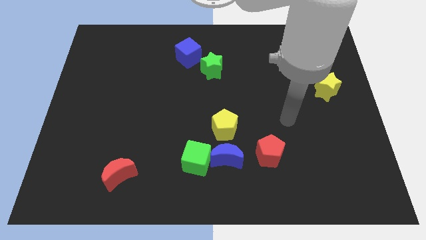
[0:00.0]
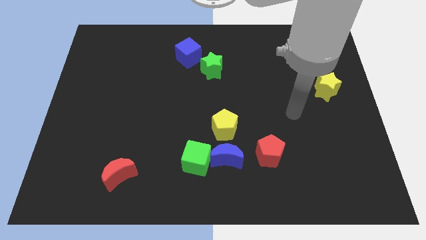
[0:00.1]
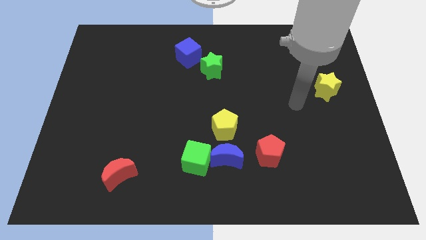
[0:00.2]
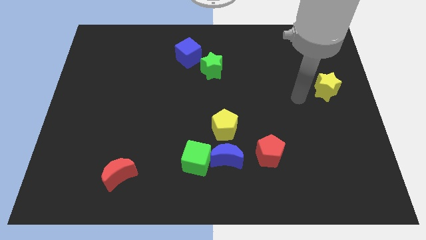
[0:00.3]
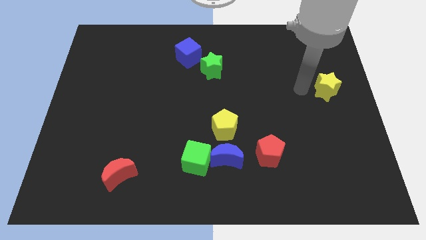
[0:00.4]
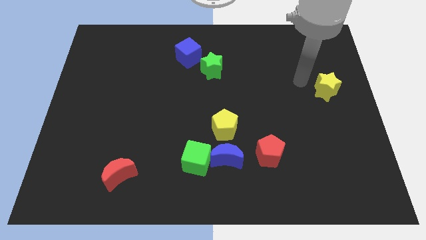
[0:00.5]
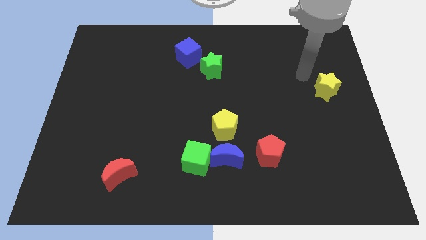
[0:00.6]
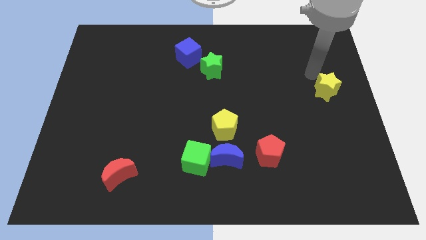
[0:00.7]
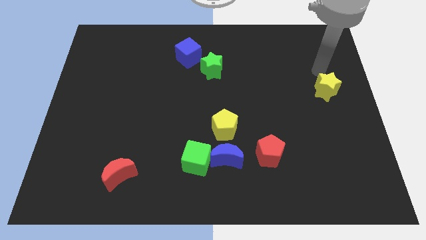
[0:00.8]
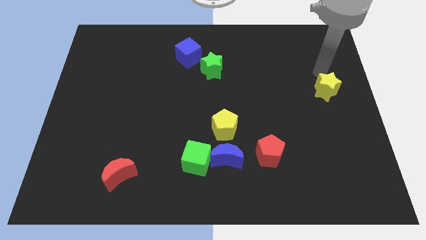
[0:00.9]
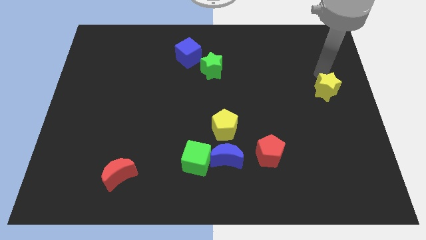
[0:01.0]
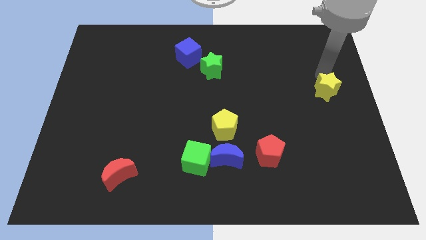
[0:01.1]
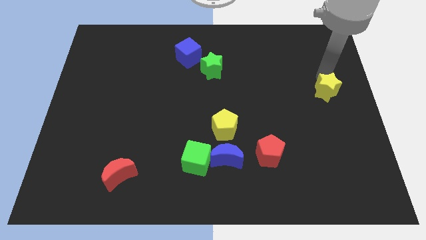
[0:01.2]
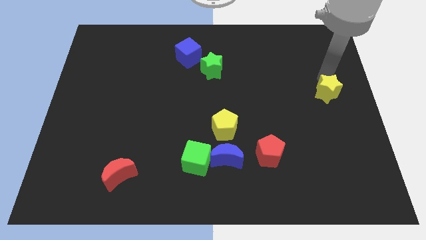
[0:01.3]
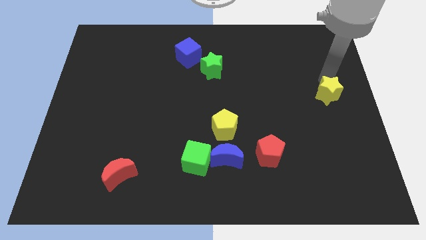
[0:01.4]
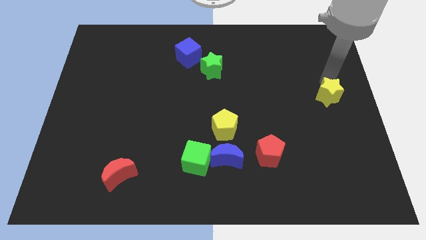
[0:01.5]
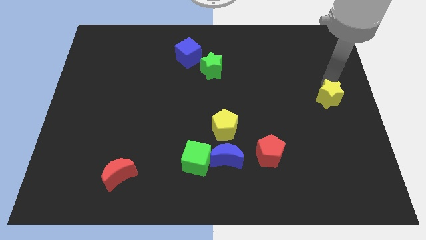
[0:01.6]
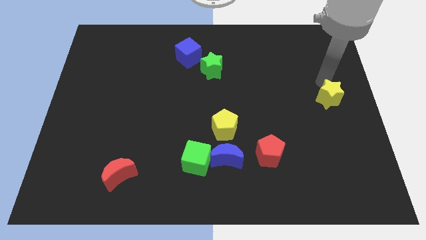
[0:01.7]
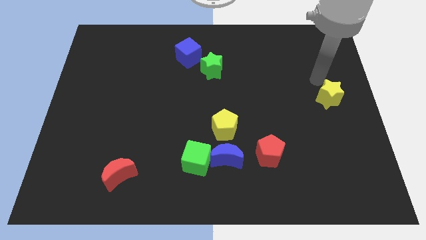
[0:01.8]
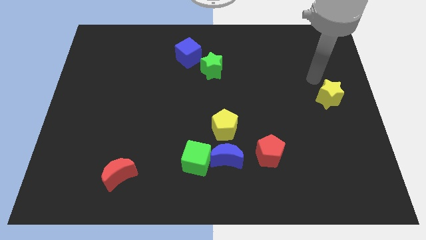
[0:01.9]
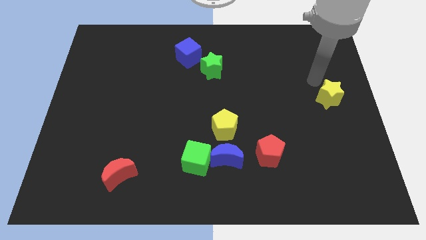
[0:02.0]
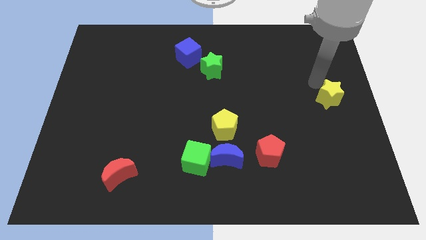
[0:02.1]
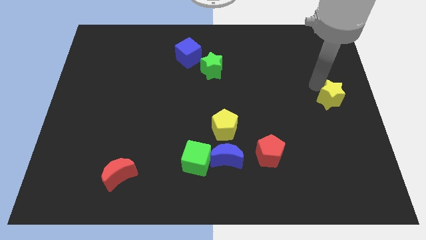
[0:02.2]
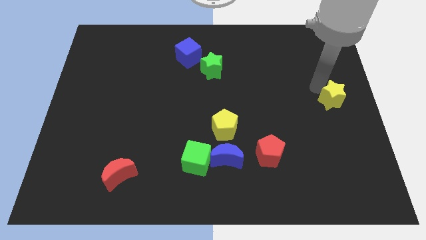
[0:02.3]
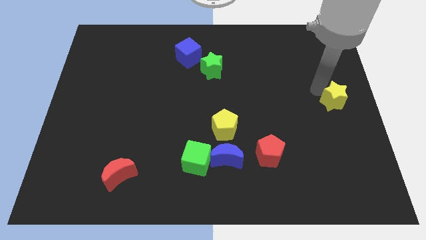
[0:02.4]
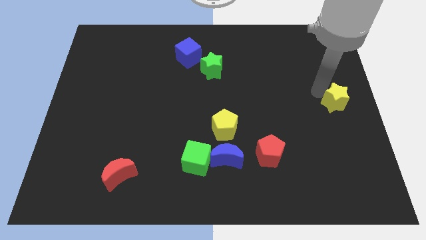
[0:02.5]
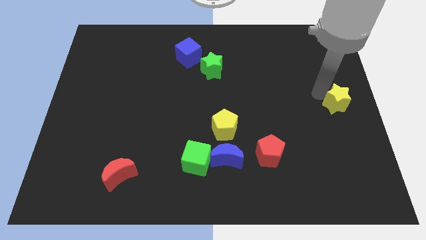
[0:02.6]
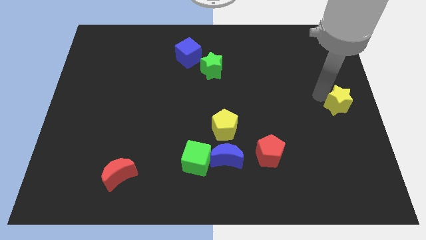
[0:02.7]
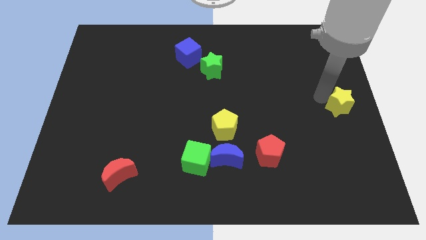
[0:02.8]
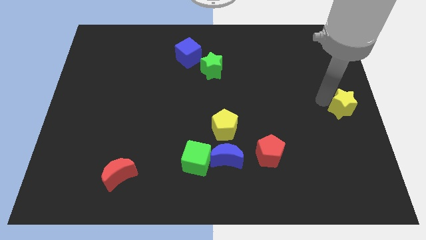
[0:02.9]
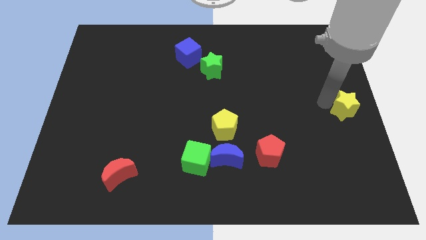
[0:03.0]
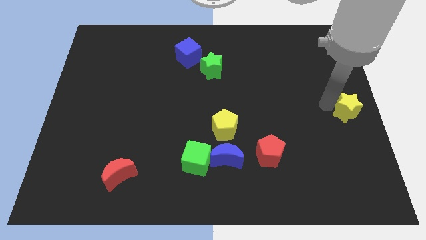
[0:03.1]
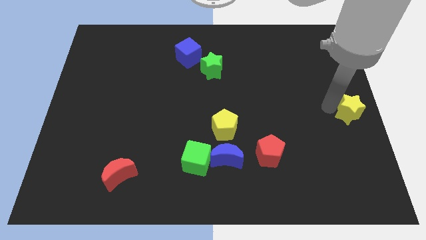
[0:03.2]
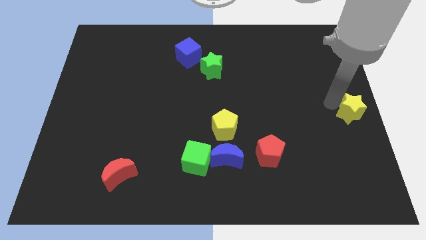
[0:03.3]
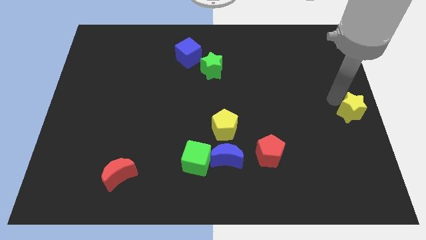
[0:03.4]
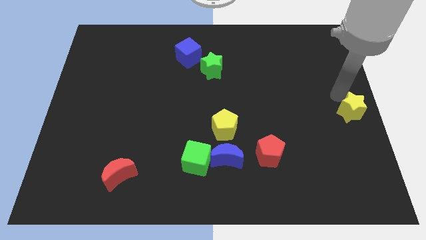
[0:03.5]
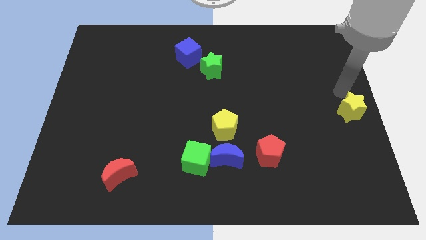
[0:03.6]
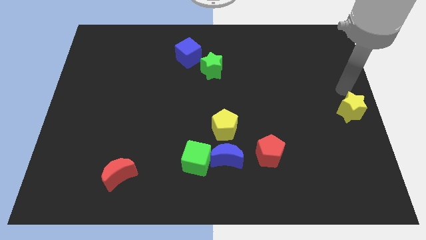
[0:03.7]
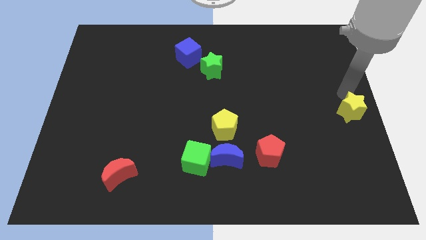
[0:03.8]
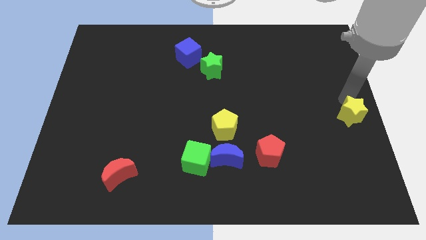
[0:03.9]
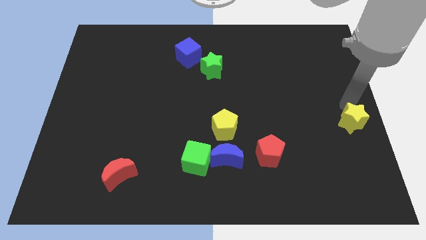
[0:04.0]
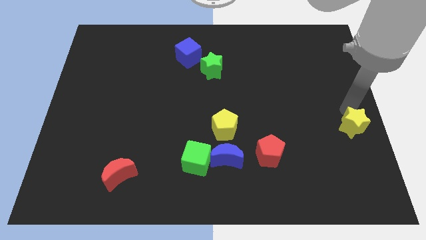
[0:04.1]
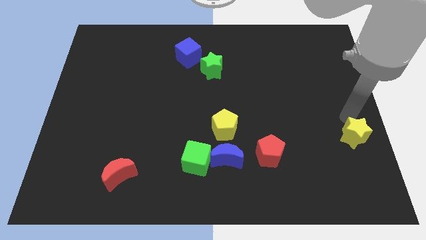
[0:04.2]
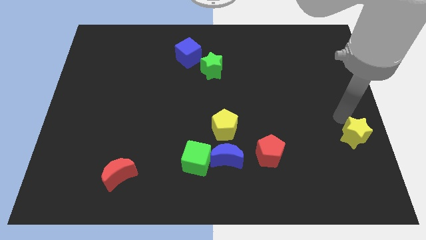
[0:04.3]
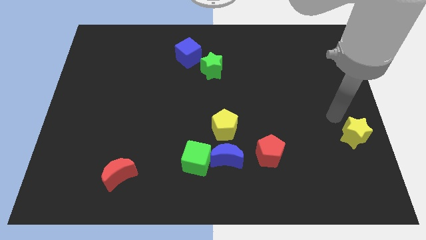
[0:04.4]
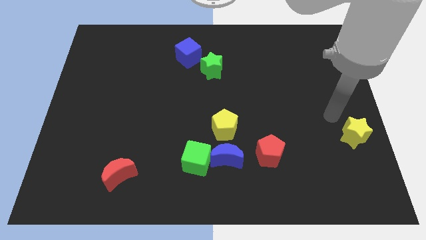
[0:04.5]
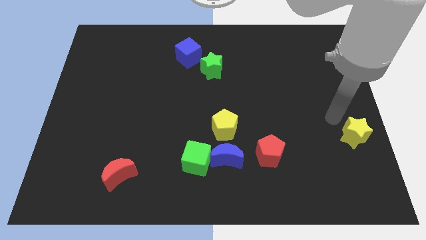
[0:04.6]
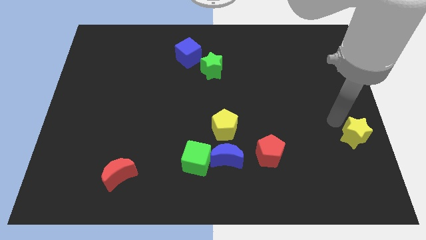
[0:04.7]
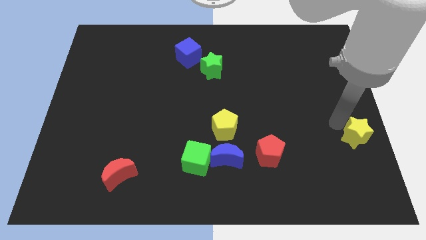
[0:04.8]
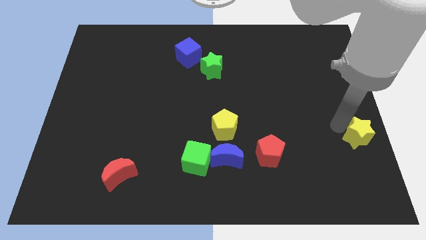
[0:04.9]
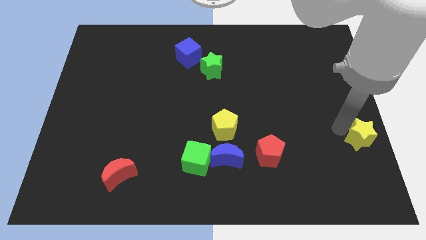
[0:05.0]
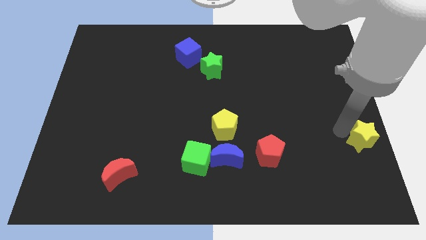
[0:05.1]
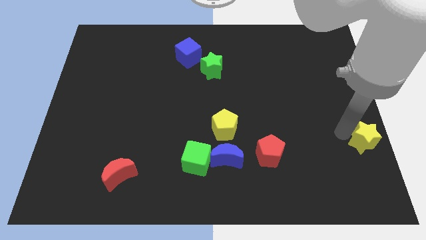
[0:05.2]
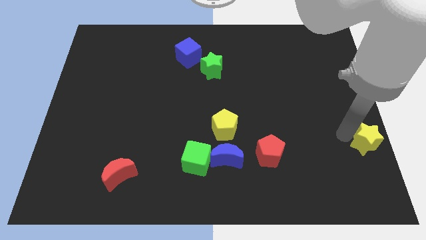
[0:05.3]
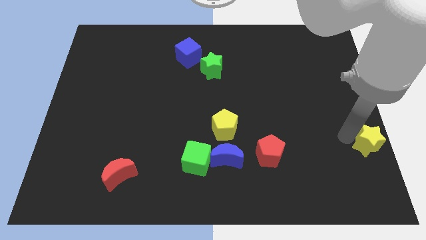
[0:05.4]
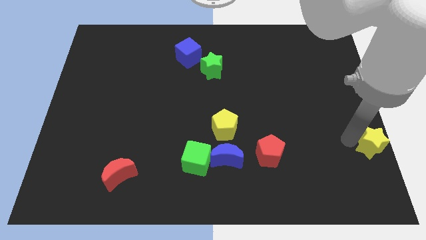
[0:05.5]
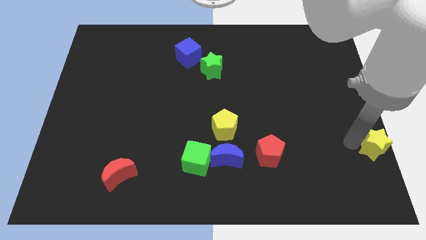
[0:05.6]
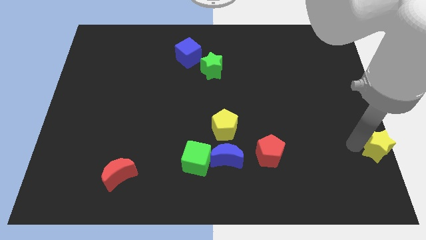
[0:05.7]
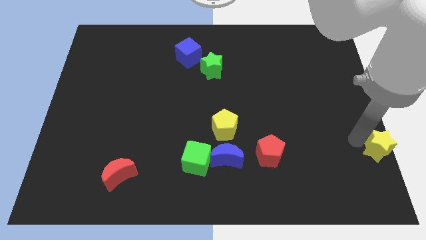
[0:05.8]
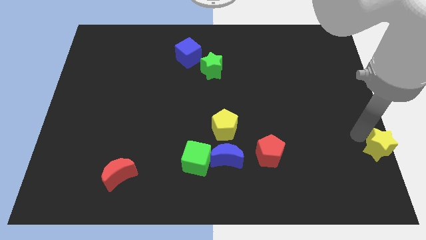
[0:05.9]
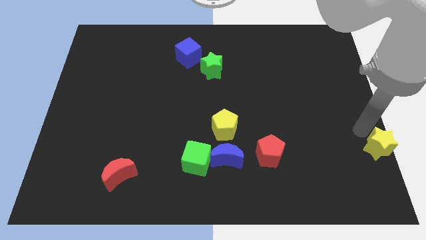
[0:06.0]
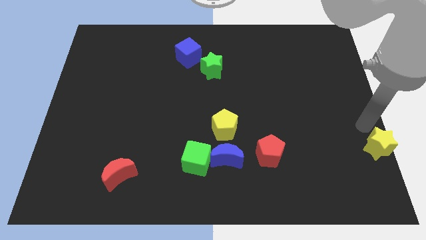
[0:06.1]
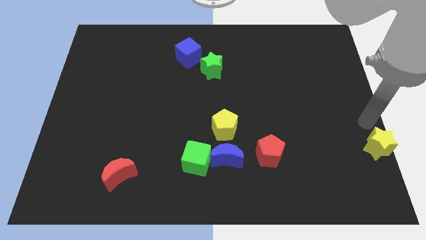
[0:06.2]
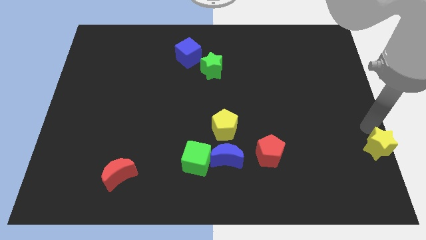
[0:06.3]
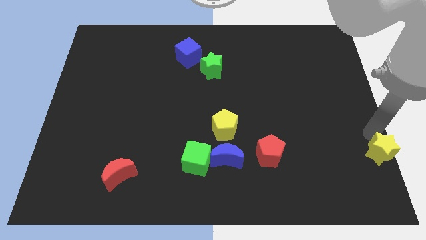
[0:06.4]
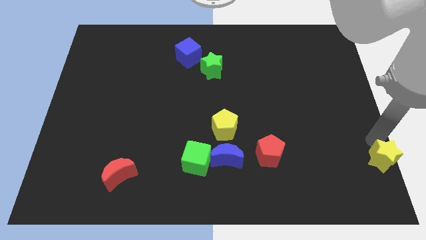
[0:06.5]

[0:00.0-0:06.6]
move the yellow star to the bottom right
